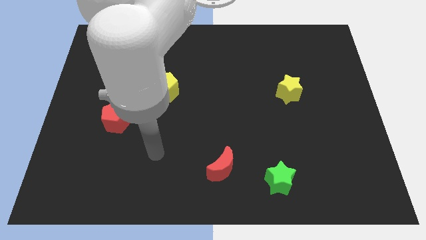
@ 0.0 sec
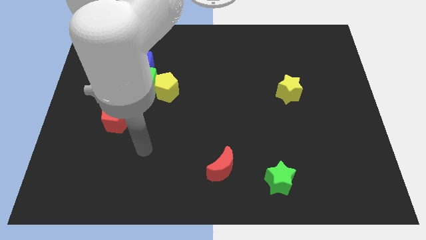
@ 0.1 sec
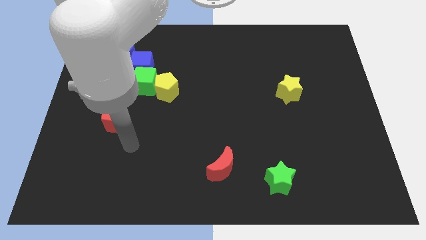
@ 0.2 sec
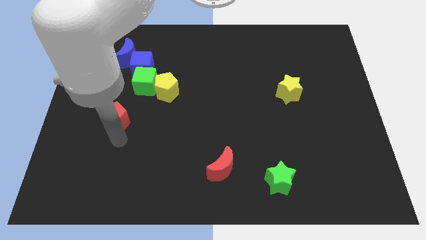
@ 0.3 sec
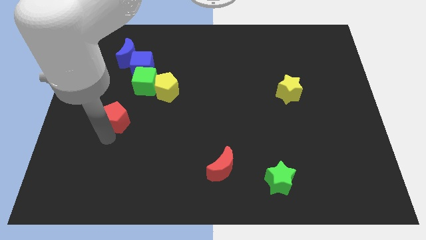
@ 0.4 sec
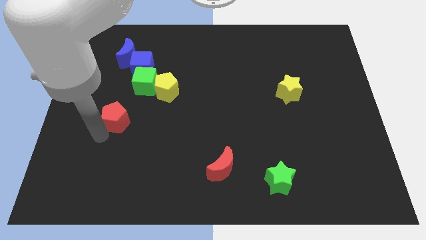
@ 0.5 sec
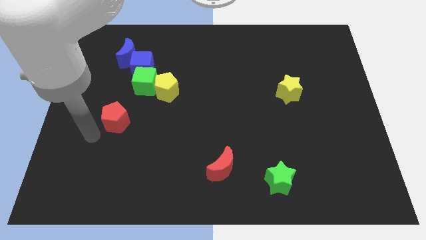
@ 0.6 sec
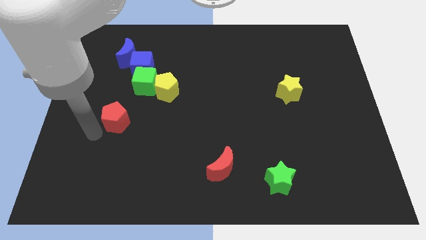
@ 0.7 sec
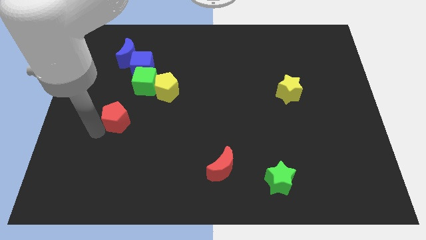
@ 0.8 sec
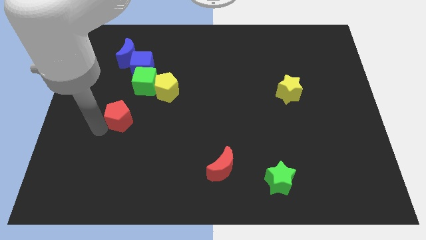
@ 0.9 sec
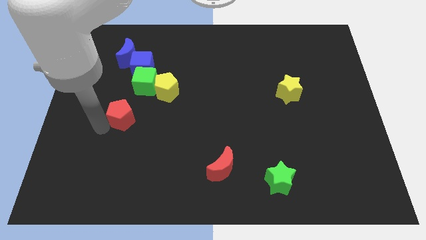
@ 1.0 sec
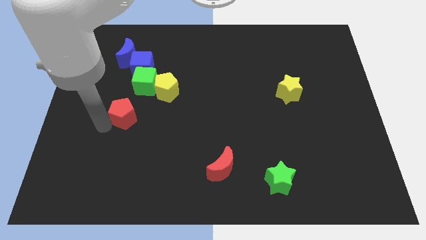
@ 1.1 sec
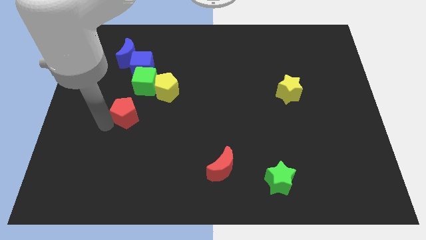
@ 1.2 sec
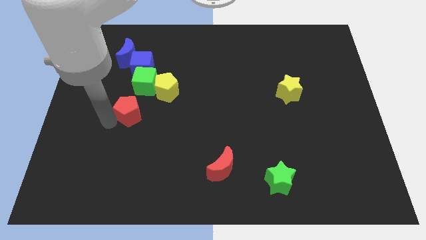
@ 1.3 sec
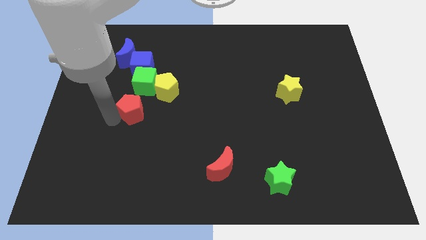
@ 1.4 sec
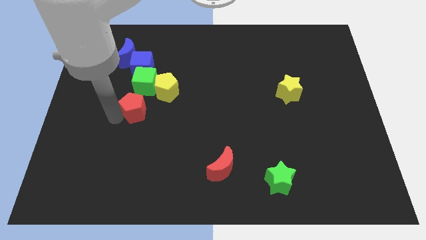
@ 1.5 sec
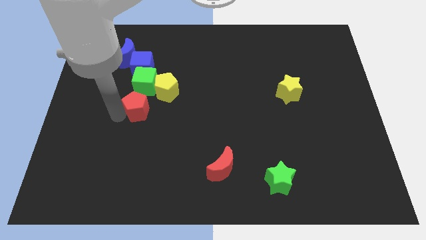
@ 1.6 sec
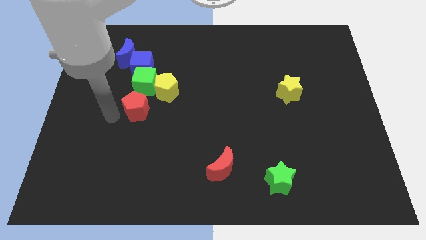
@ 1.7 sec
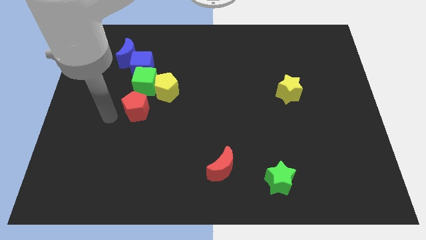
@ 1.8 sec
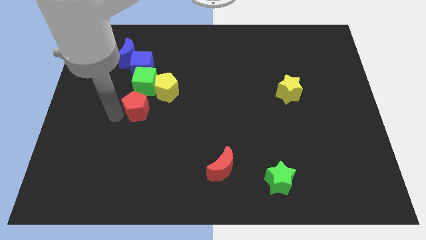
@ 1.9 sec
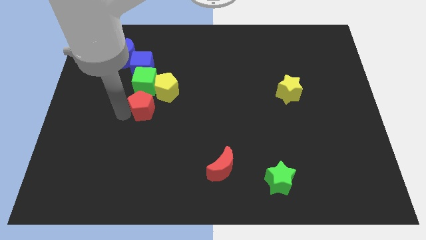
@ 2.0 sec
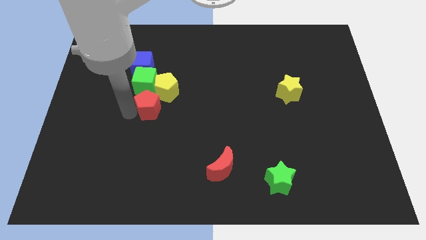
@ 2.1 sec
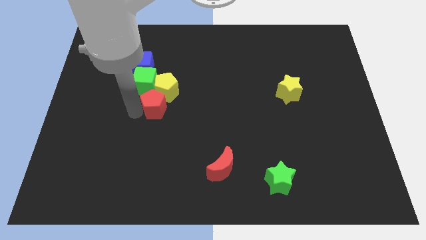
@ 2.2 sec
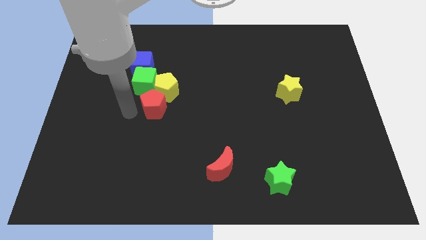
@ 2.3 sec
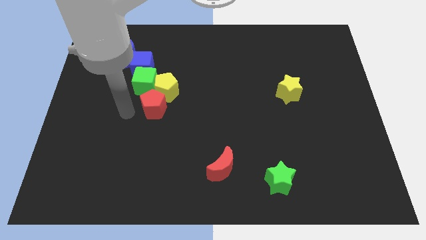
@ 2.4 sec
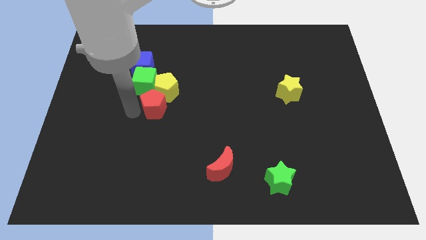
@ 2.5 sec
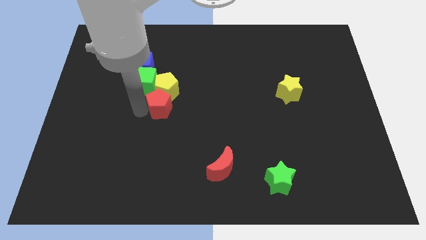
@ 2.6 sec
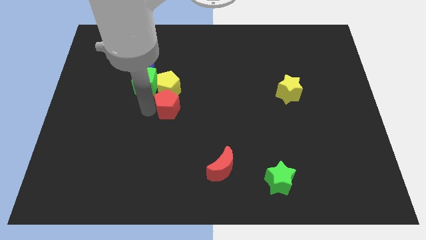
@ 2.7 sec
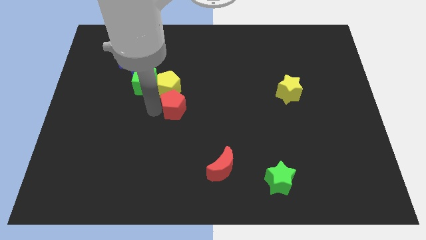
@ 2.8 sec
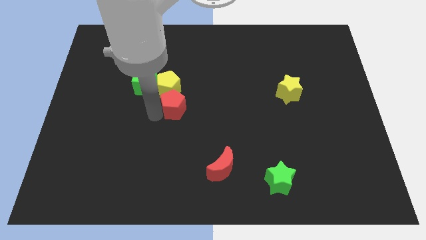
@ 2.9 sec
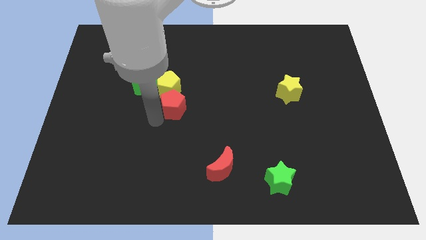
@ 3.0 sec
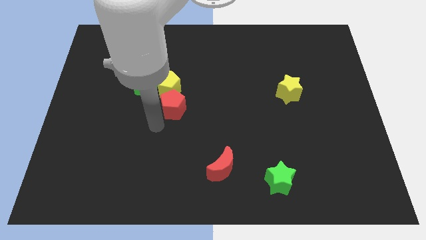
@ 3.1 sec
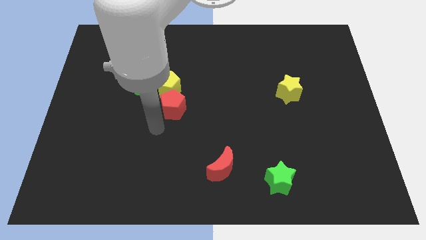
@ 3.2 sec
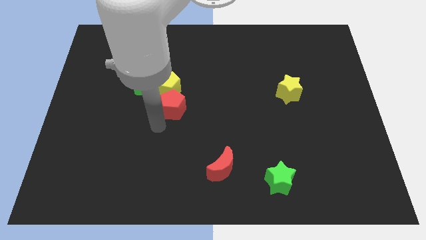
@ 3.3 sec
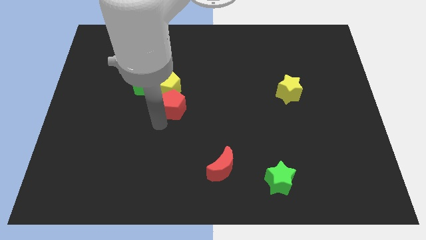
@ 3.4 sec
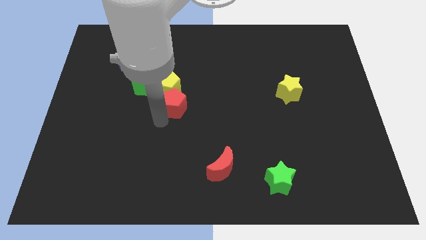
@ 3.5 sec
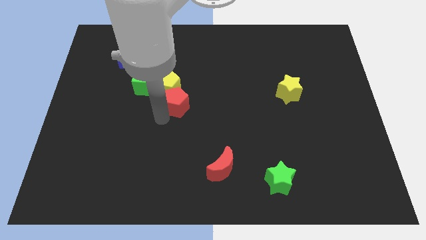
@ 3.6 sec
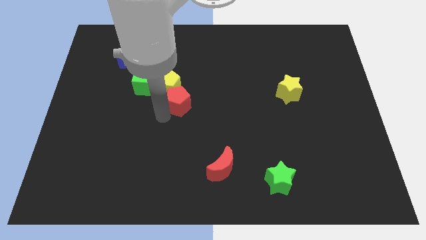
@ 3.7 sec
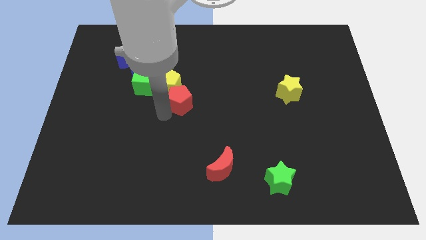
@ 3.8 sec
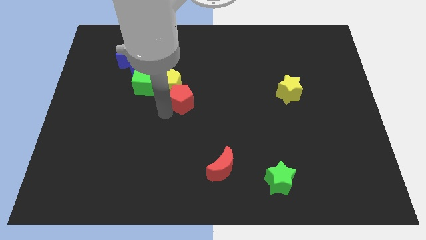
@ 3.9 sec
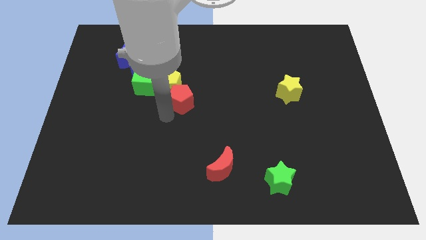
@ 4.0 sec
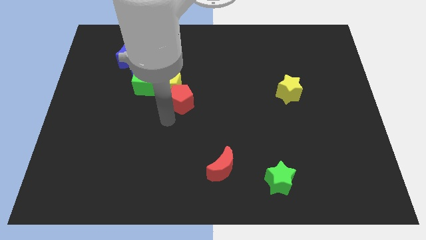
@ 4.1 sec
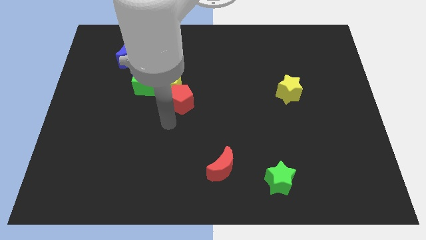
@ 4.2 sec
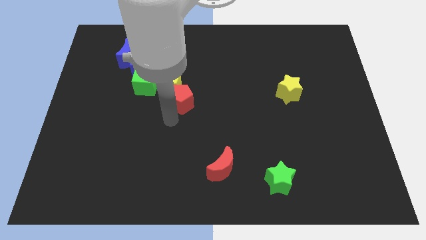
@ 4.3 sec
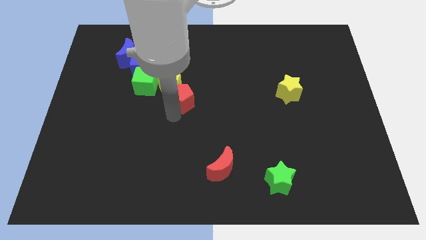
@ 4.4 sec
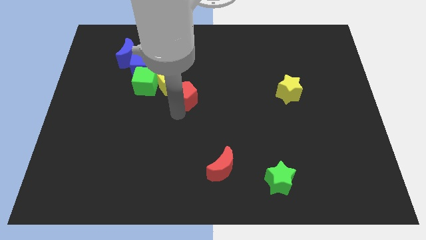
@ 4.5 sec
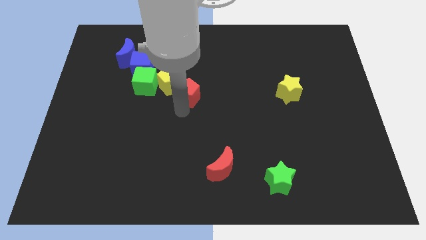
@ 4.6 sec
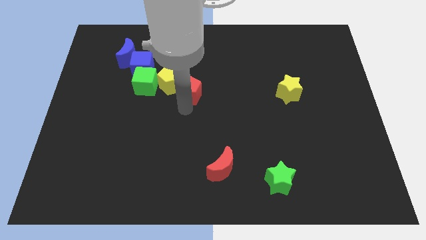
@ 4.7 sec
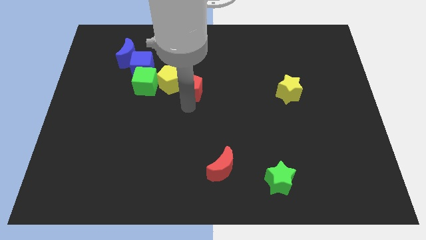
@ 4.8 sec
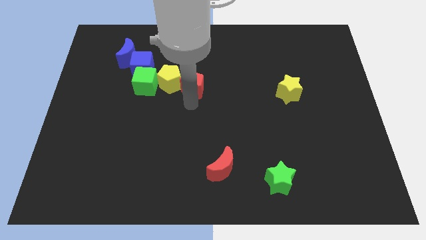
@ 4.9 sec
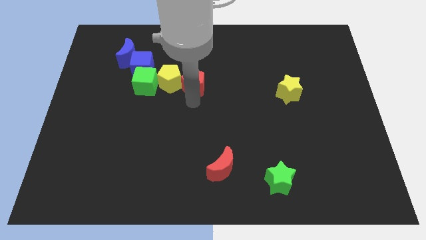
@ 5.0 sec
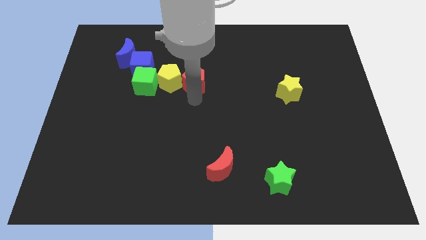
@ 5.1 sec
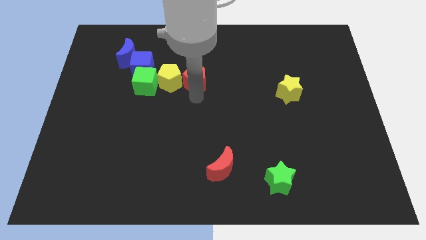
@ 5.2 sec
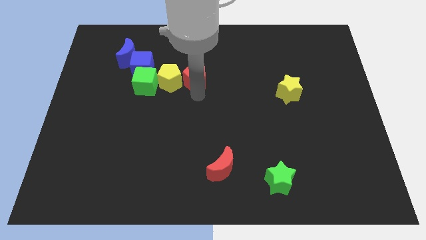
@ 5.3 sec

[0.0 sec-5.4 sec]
push the red pentagon right of the blue cube

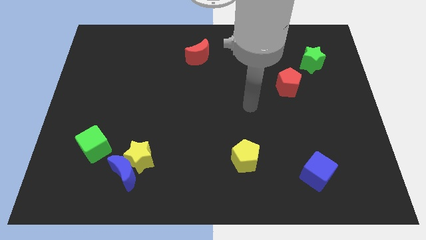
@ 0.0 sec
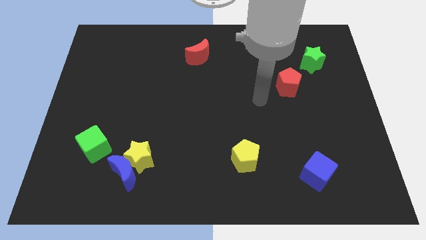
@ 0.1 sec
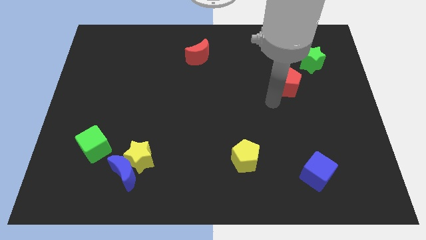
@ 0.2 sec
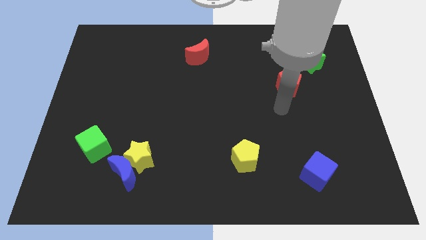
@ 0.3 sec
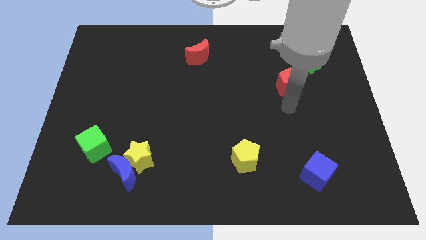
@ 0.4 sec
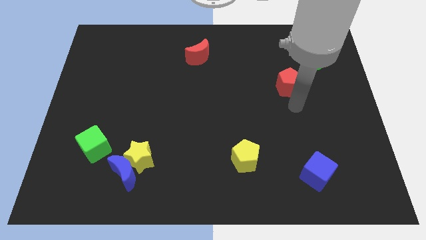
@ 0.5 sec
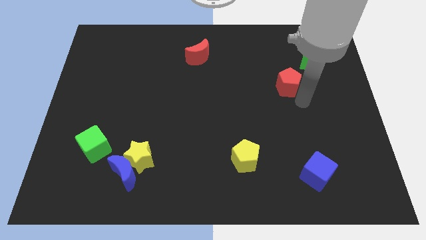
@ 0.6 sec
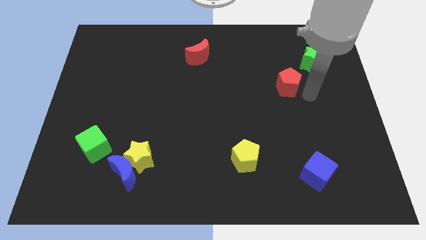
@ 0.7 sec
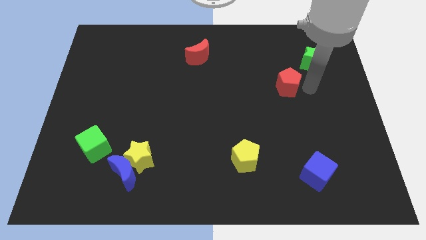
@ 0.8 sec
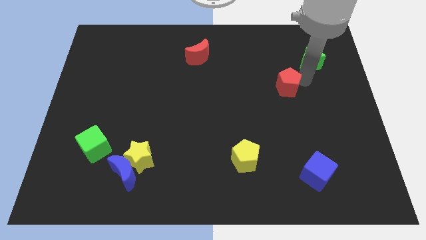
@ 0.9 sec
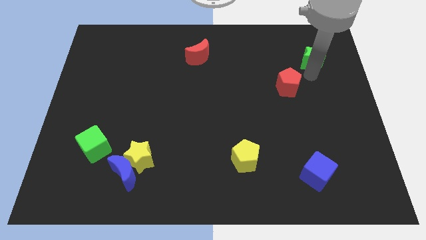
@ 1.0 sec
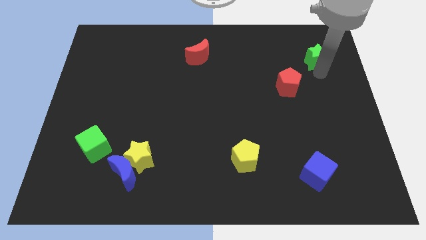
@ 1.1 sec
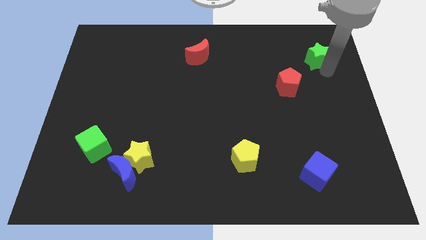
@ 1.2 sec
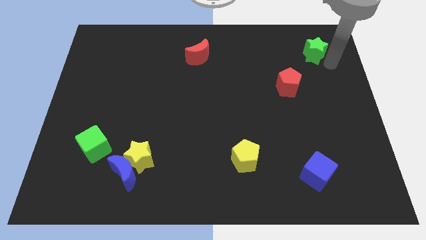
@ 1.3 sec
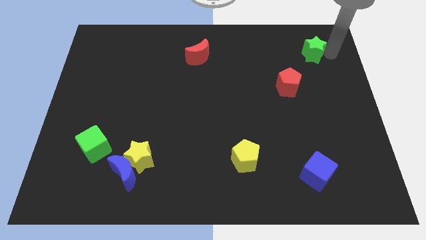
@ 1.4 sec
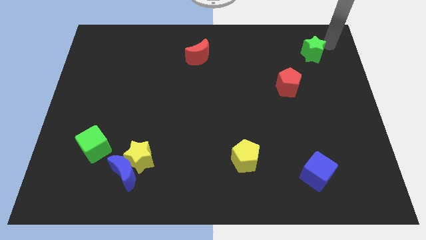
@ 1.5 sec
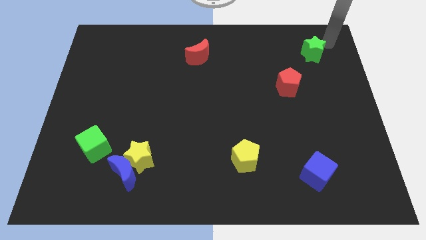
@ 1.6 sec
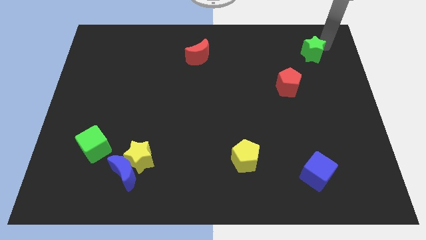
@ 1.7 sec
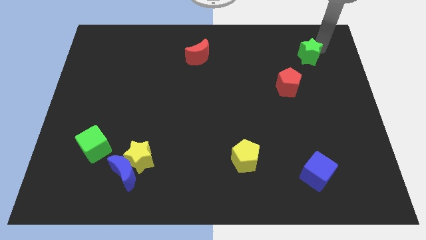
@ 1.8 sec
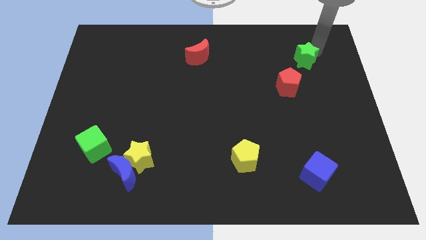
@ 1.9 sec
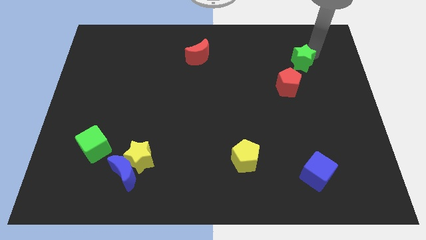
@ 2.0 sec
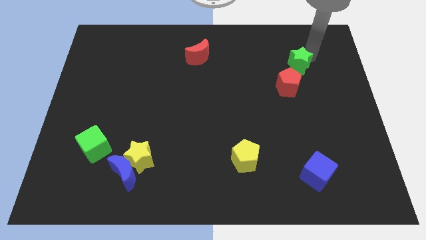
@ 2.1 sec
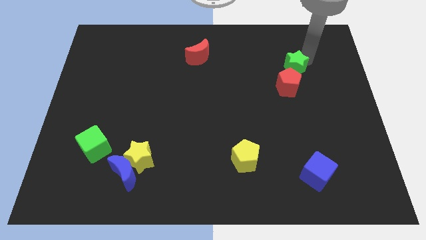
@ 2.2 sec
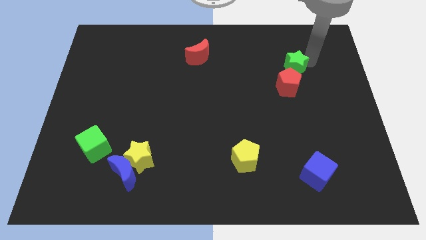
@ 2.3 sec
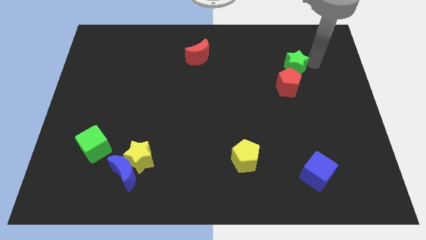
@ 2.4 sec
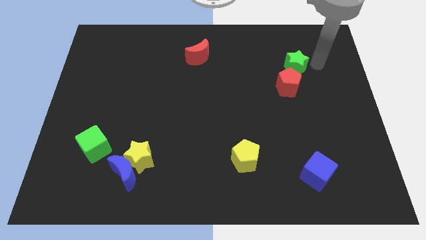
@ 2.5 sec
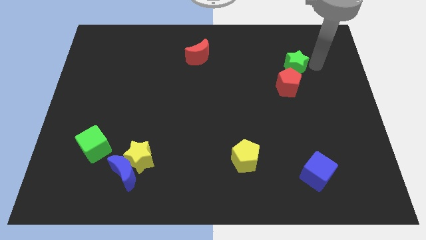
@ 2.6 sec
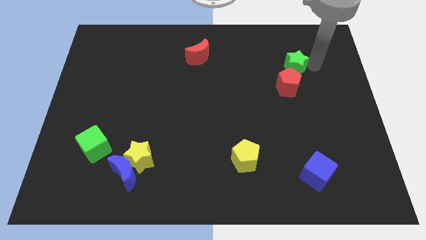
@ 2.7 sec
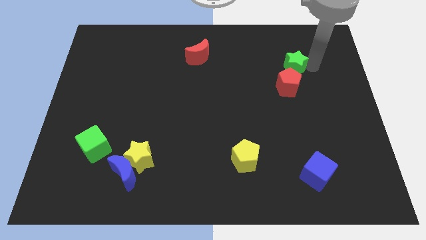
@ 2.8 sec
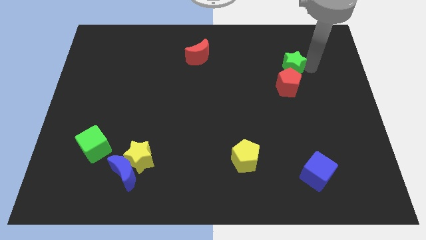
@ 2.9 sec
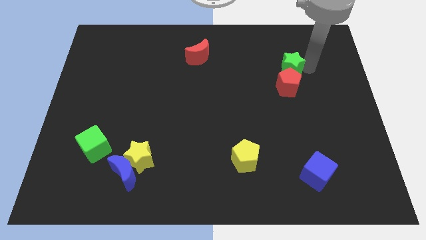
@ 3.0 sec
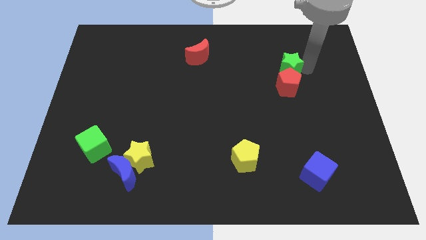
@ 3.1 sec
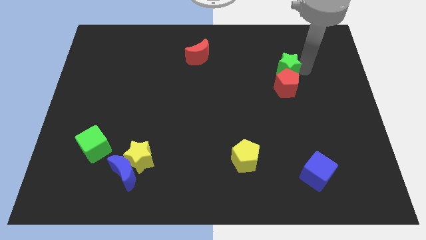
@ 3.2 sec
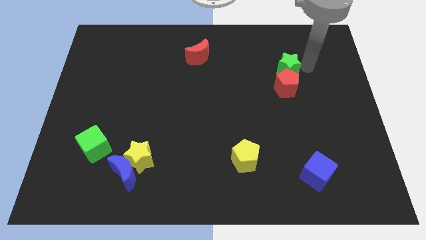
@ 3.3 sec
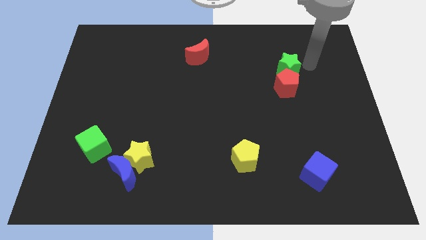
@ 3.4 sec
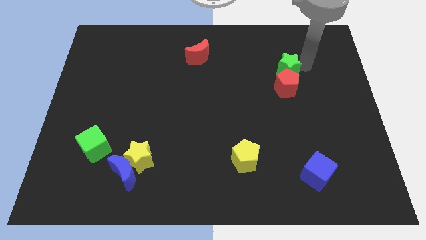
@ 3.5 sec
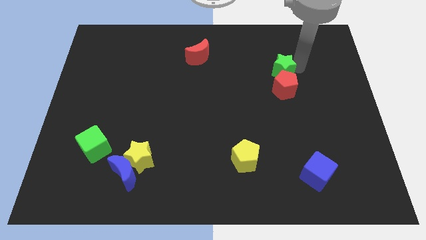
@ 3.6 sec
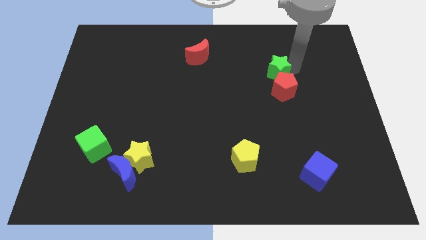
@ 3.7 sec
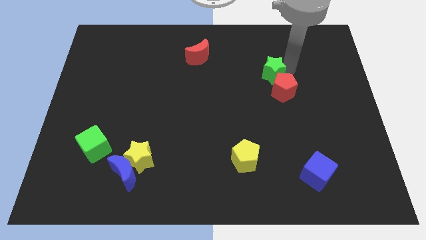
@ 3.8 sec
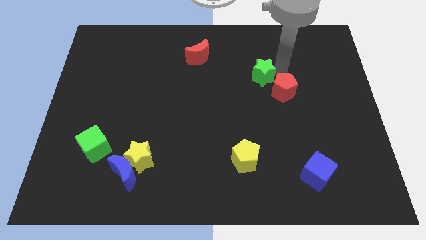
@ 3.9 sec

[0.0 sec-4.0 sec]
slide the green star to the left side of the red pentagon
